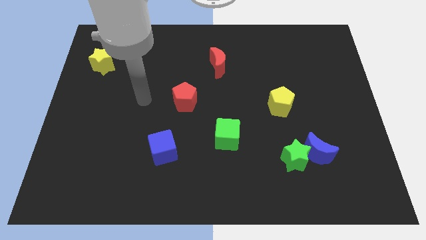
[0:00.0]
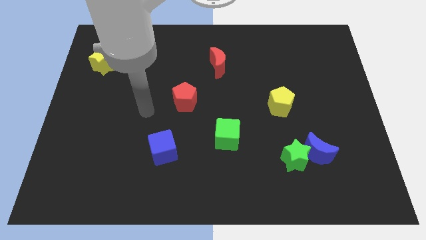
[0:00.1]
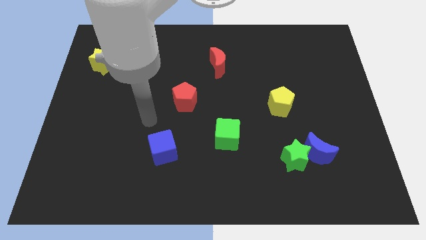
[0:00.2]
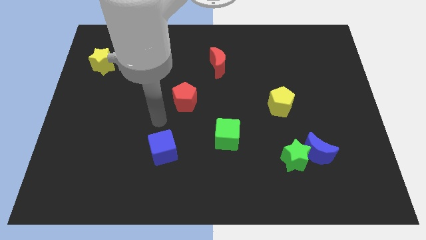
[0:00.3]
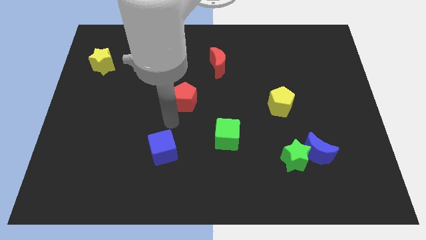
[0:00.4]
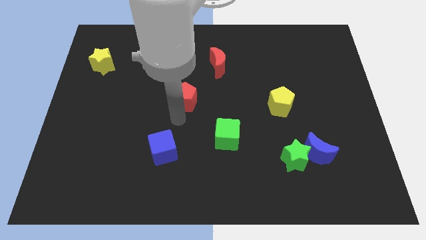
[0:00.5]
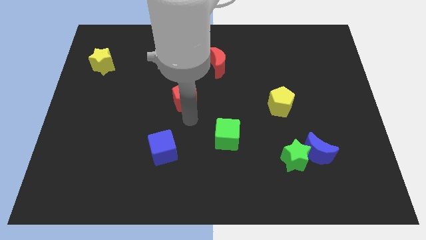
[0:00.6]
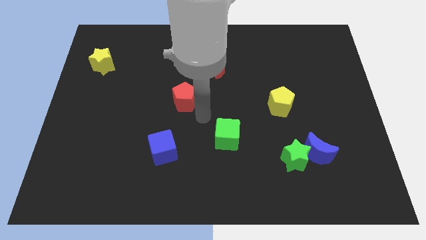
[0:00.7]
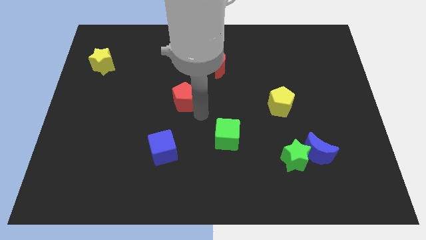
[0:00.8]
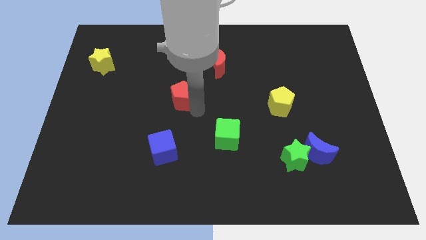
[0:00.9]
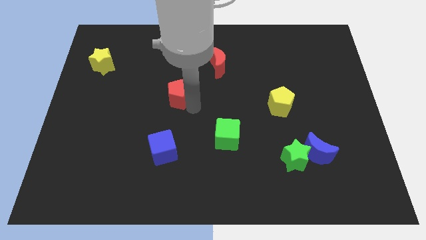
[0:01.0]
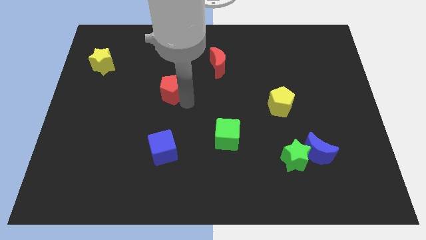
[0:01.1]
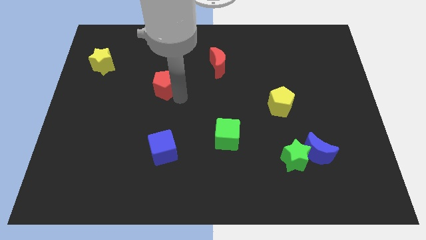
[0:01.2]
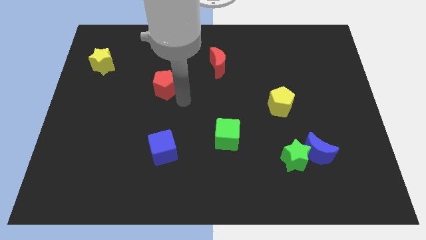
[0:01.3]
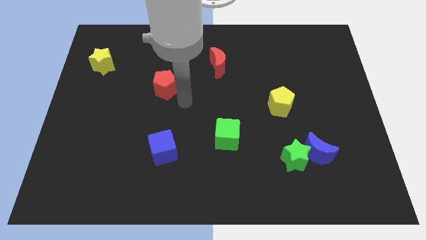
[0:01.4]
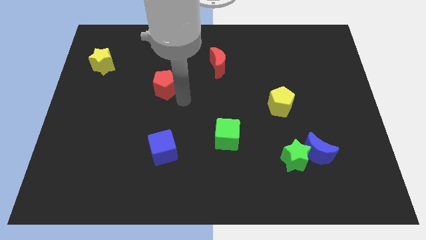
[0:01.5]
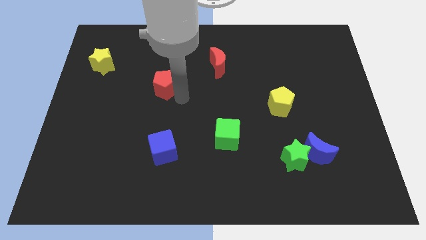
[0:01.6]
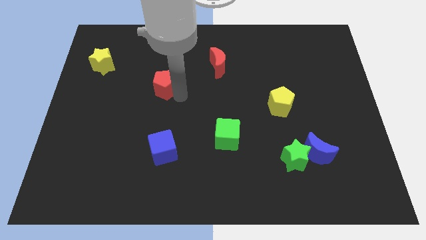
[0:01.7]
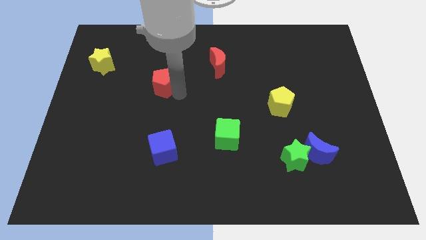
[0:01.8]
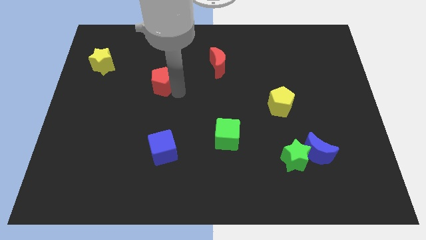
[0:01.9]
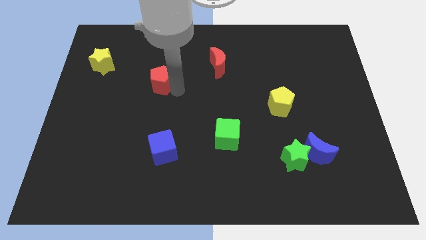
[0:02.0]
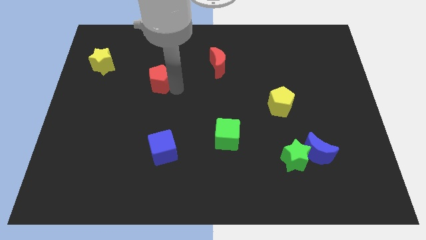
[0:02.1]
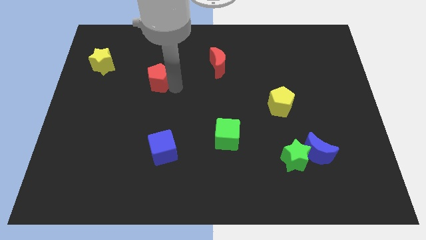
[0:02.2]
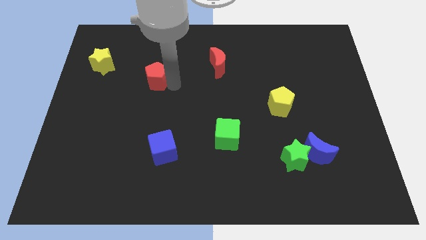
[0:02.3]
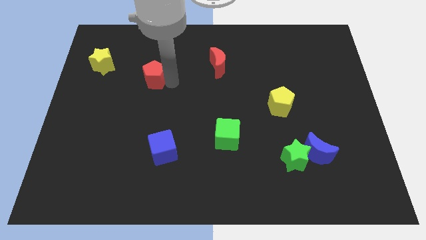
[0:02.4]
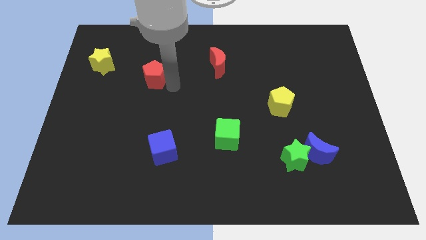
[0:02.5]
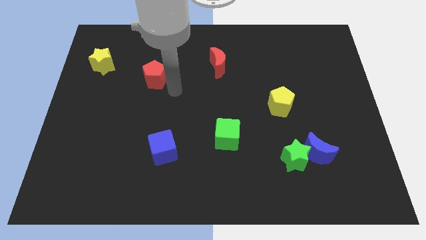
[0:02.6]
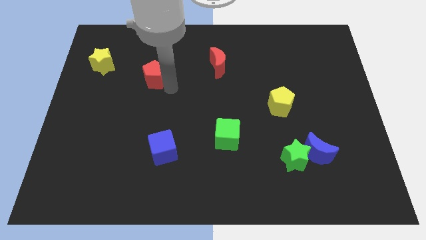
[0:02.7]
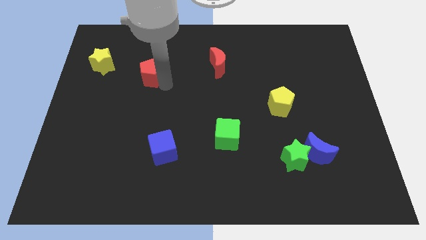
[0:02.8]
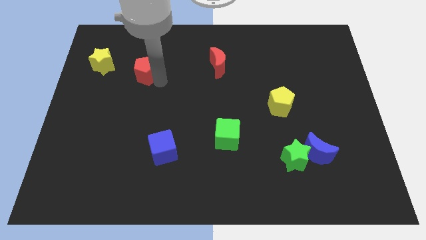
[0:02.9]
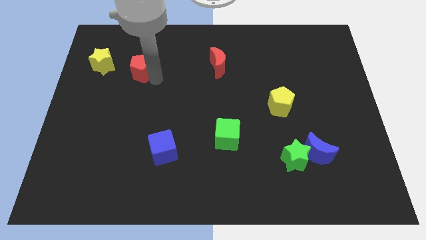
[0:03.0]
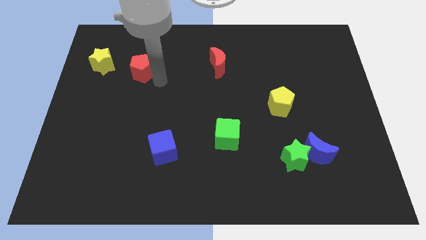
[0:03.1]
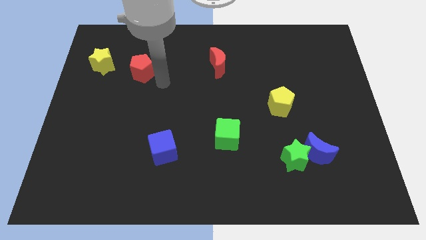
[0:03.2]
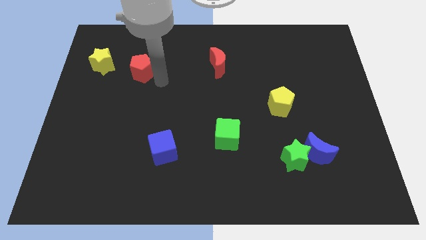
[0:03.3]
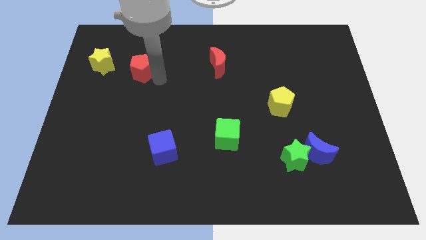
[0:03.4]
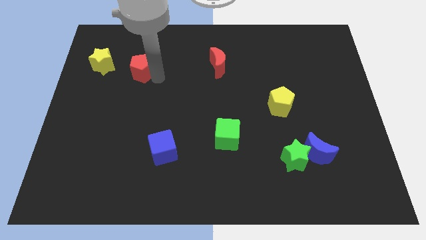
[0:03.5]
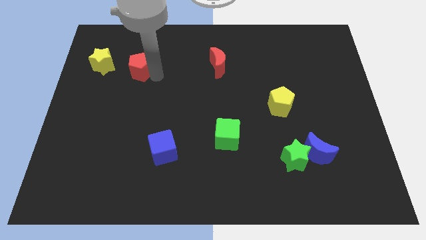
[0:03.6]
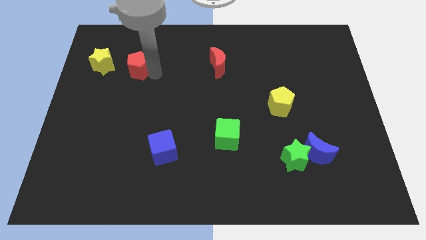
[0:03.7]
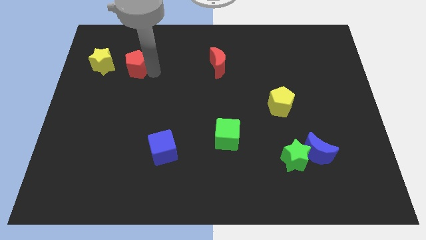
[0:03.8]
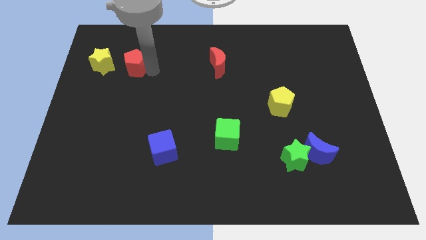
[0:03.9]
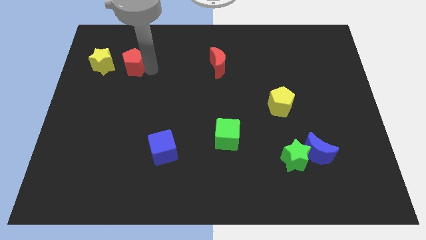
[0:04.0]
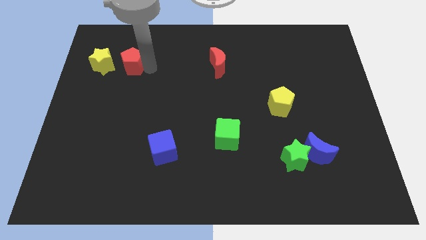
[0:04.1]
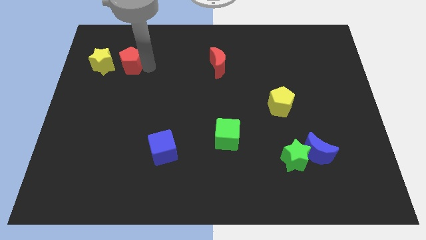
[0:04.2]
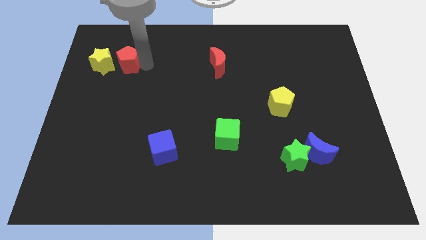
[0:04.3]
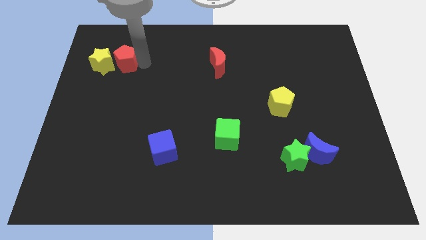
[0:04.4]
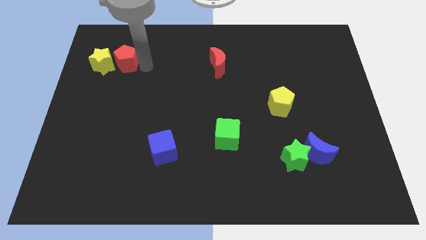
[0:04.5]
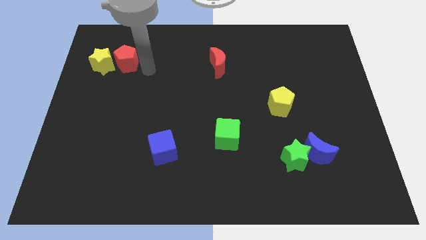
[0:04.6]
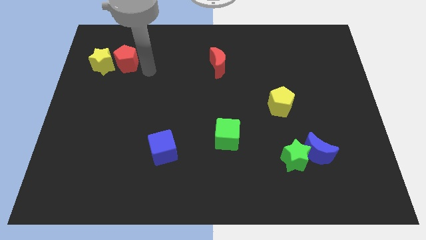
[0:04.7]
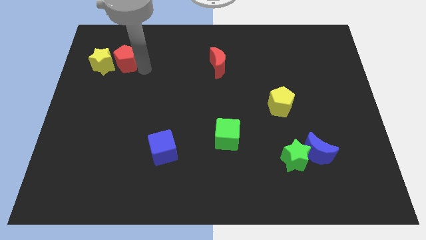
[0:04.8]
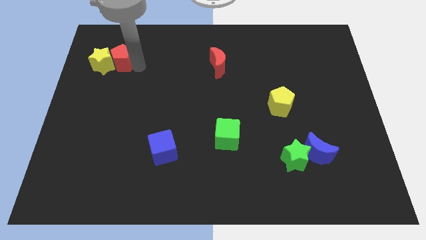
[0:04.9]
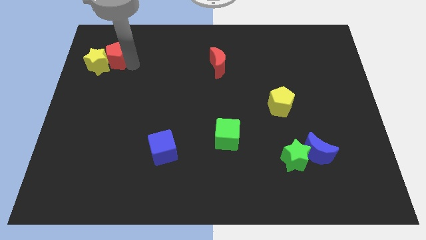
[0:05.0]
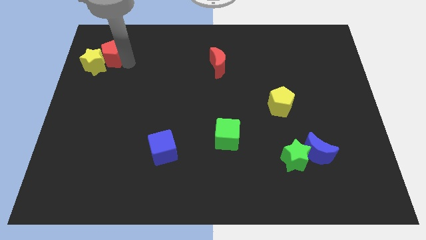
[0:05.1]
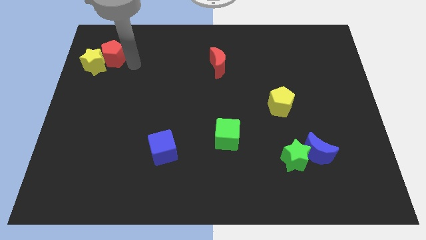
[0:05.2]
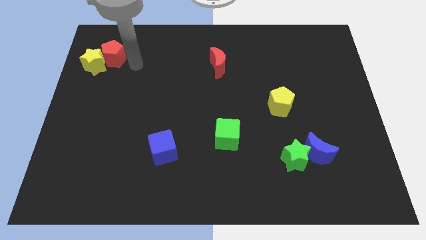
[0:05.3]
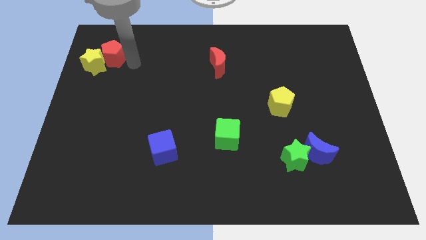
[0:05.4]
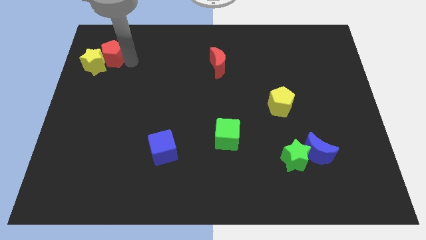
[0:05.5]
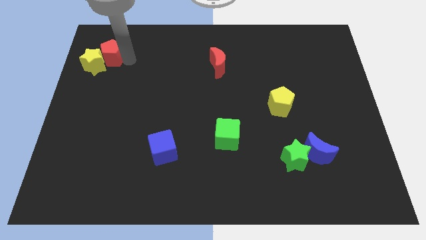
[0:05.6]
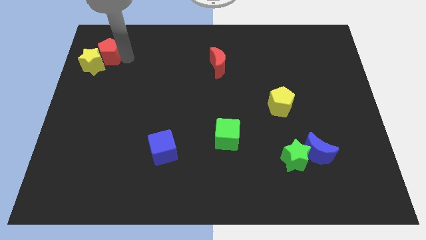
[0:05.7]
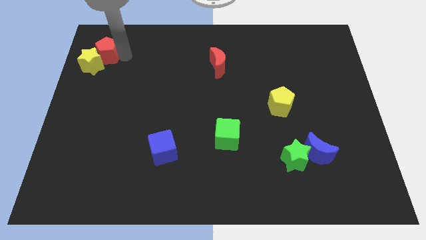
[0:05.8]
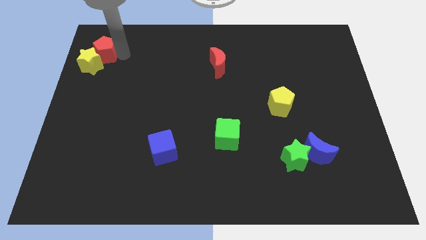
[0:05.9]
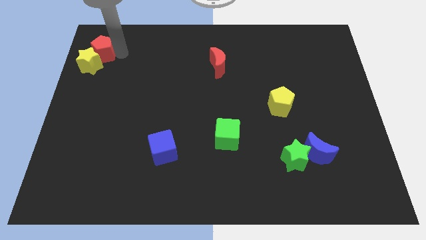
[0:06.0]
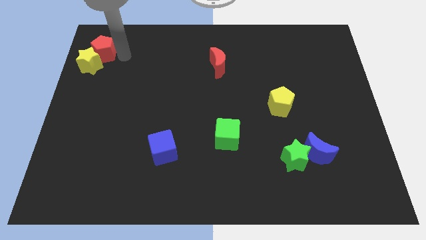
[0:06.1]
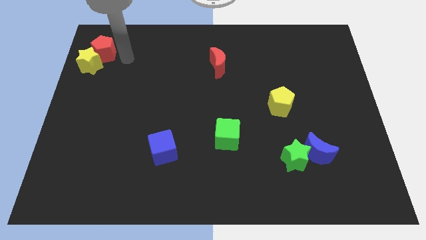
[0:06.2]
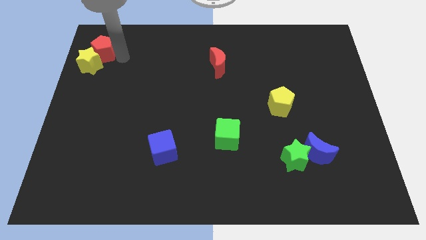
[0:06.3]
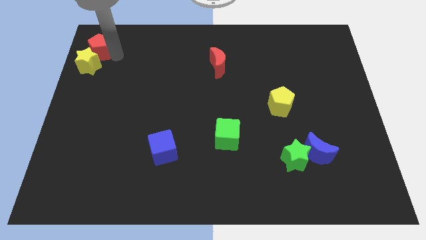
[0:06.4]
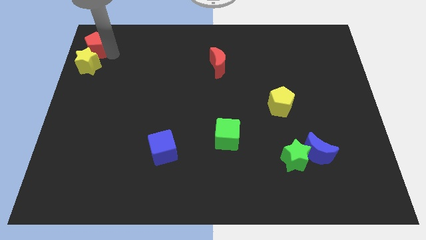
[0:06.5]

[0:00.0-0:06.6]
push the red pentagon to the upper left corner

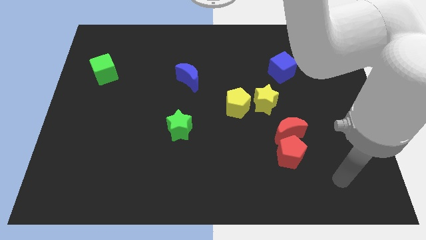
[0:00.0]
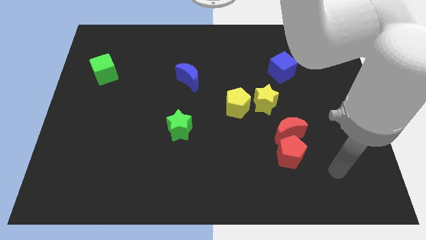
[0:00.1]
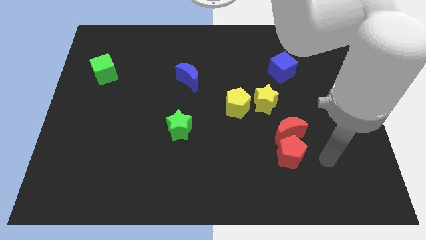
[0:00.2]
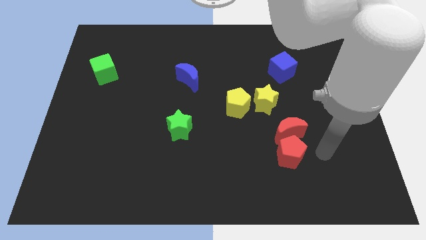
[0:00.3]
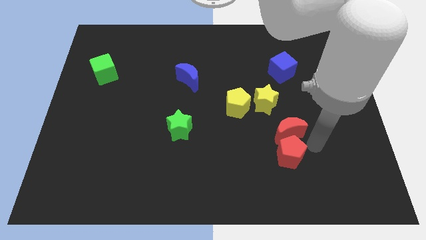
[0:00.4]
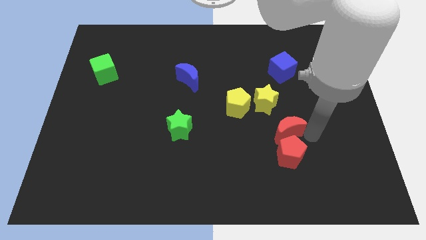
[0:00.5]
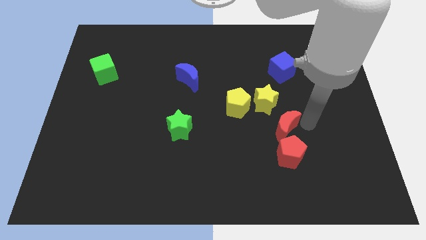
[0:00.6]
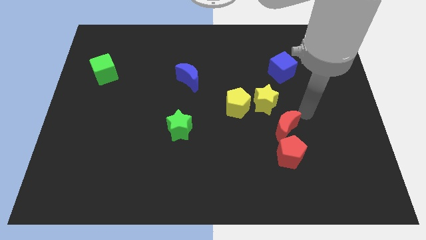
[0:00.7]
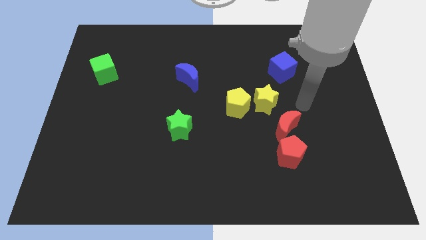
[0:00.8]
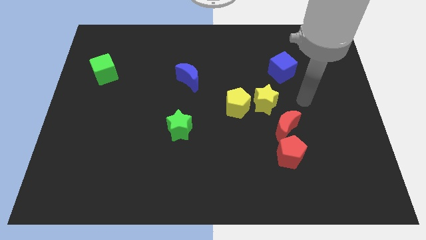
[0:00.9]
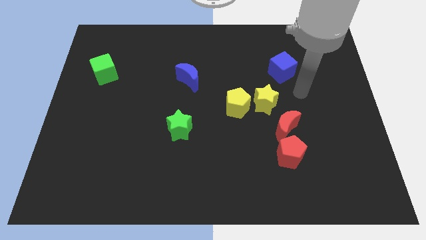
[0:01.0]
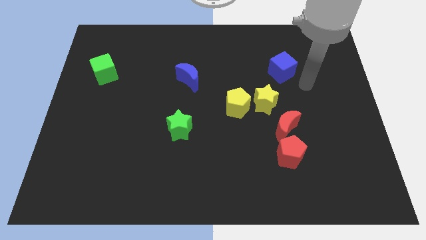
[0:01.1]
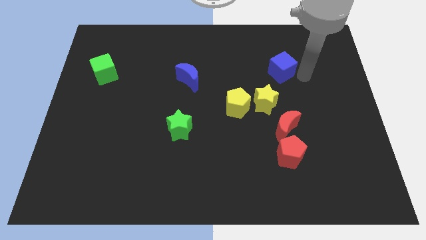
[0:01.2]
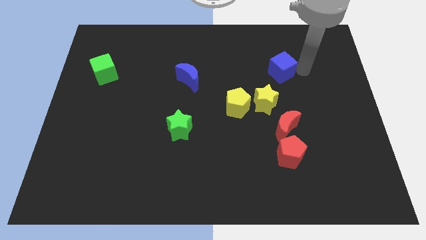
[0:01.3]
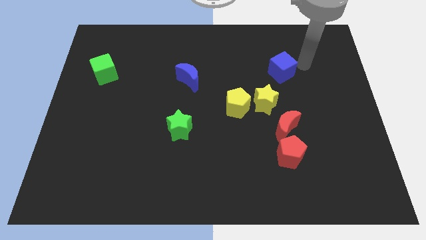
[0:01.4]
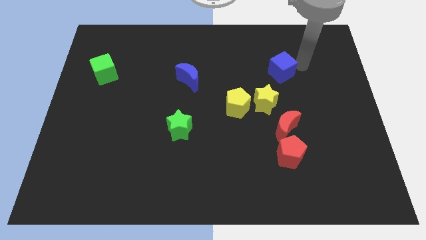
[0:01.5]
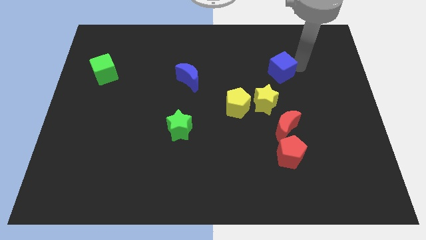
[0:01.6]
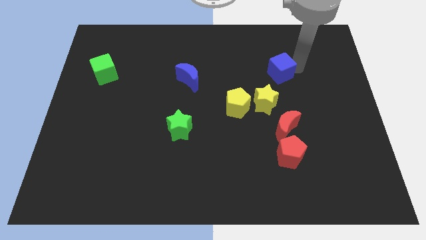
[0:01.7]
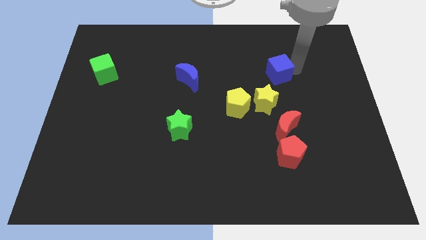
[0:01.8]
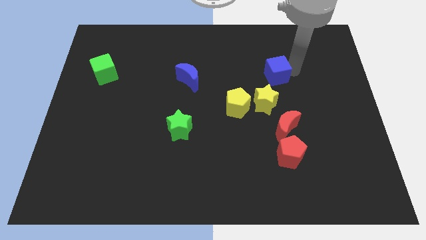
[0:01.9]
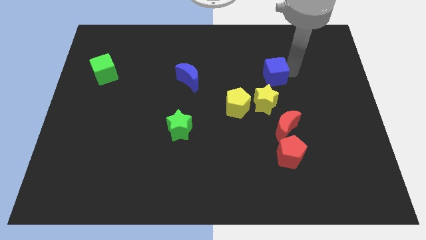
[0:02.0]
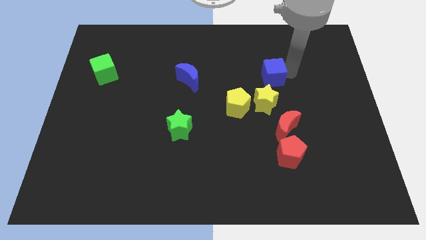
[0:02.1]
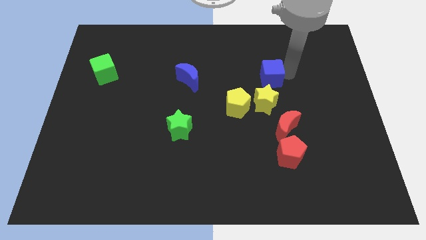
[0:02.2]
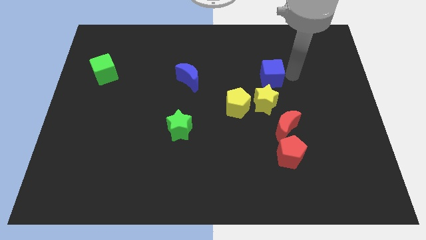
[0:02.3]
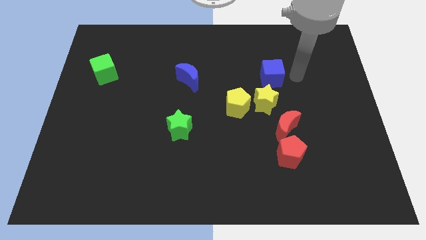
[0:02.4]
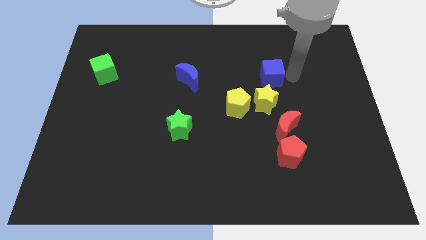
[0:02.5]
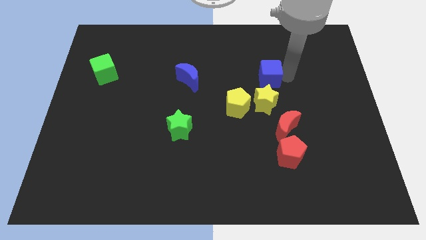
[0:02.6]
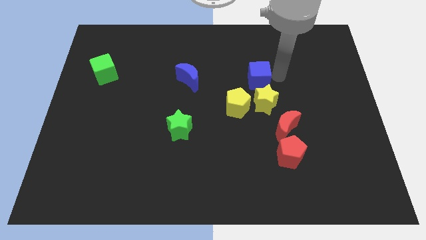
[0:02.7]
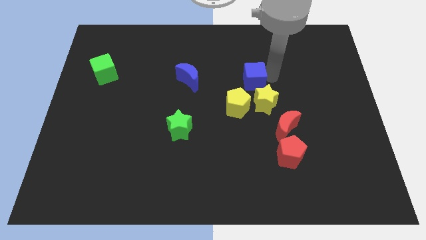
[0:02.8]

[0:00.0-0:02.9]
move the blue cube to the middle of the board
